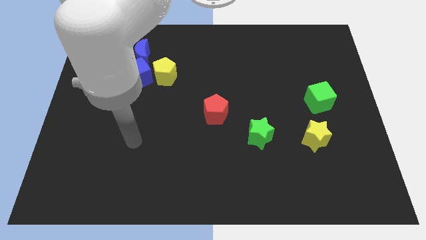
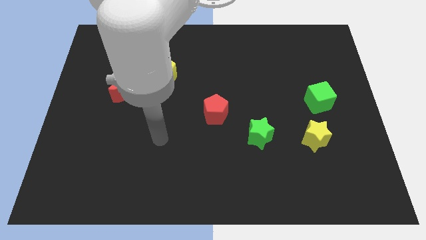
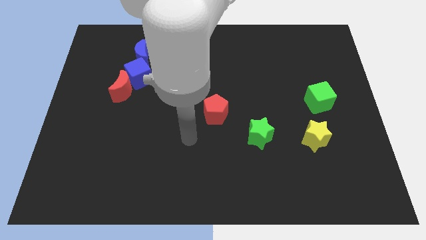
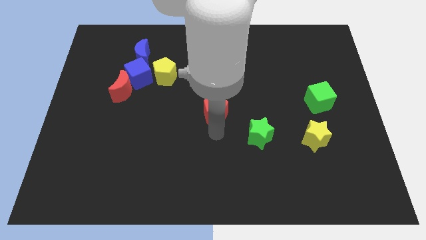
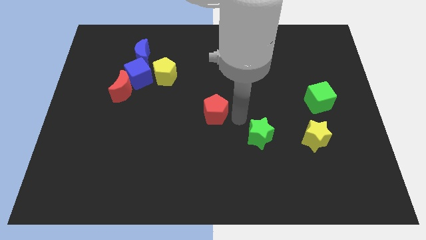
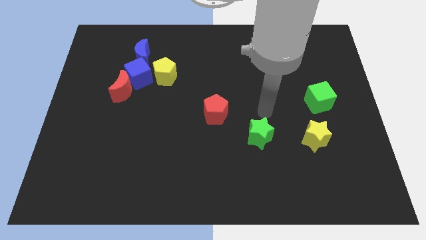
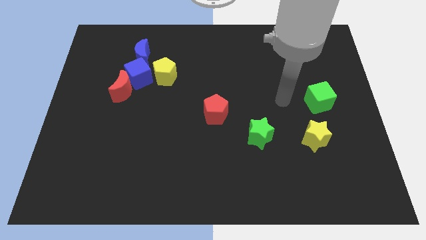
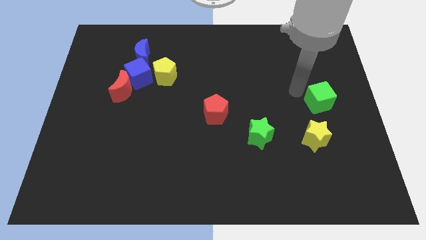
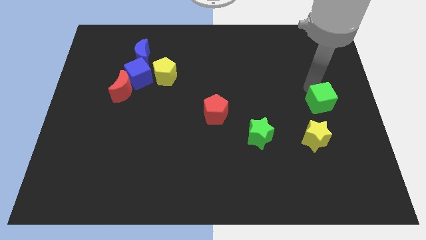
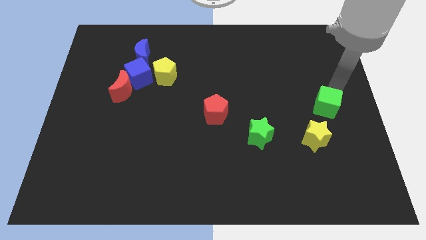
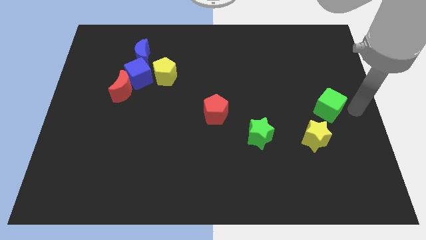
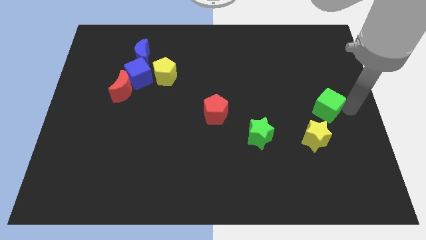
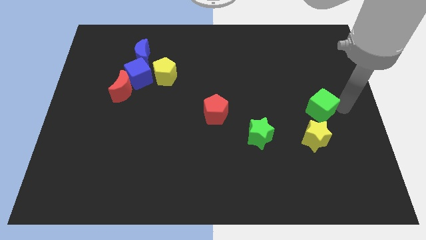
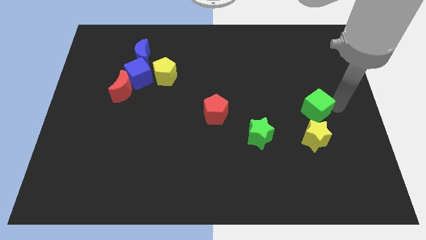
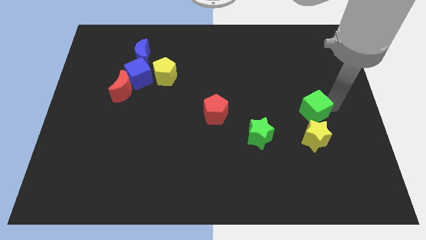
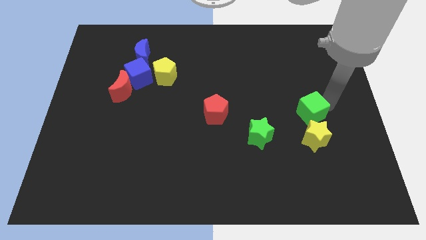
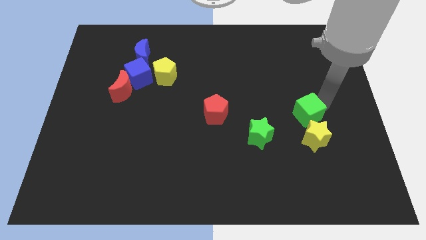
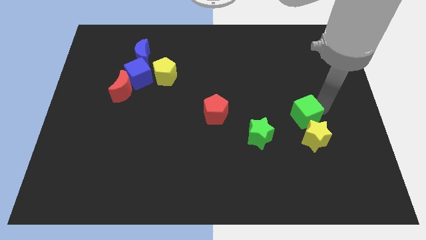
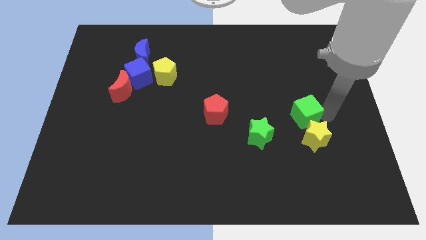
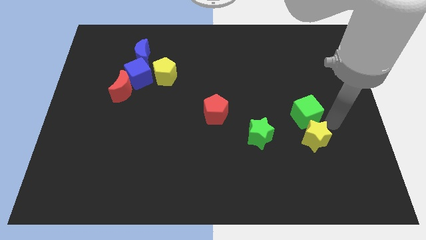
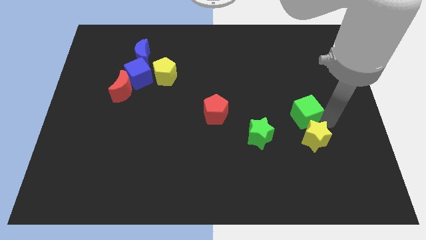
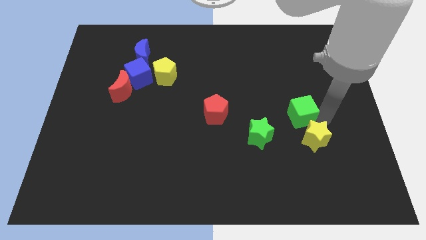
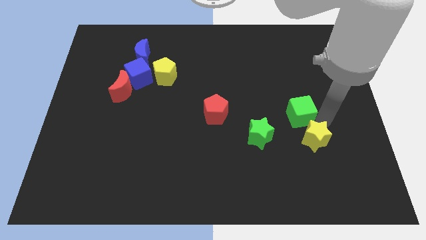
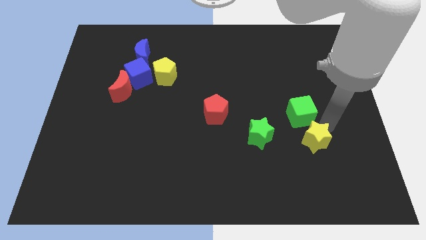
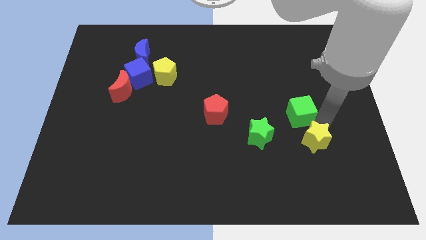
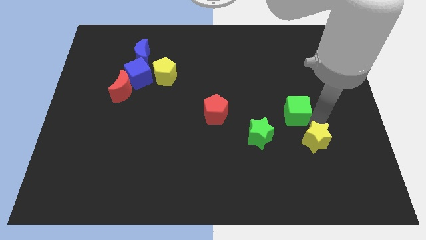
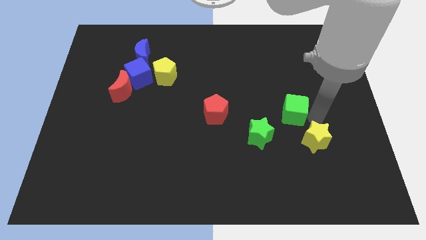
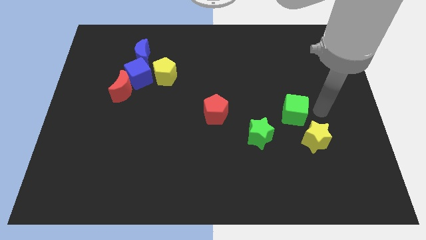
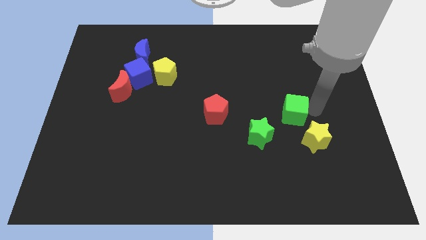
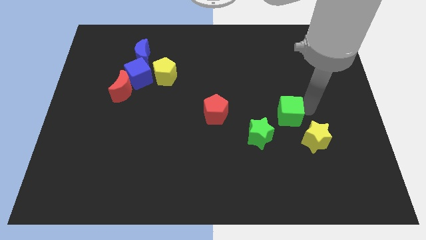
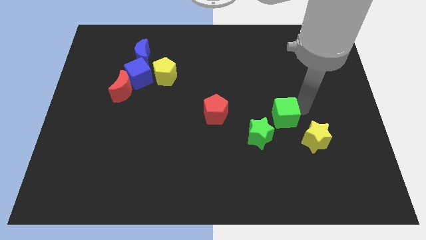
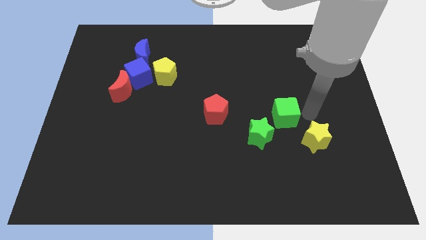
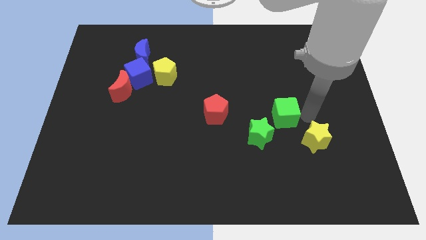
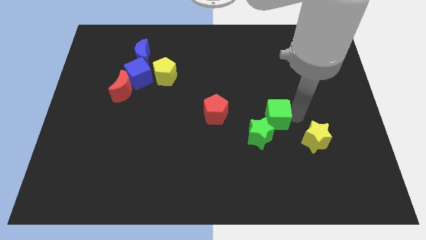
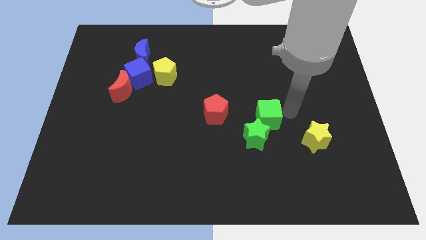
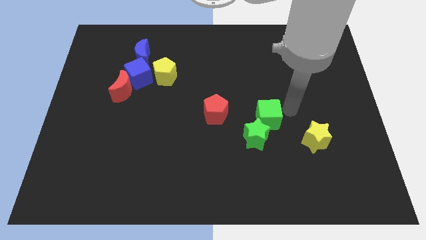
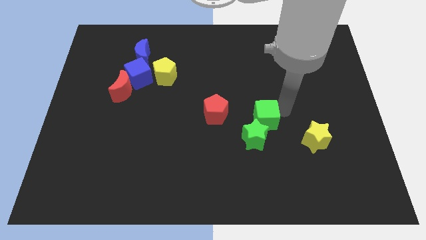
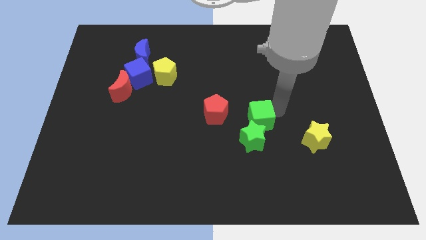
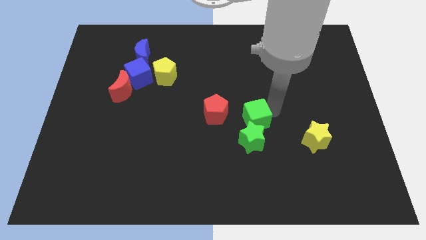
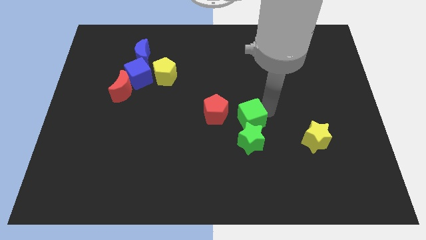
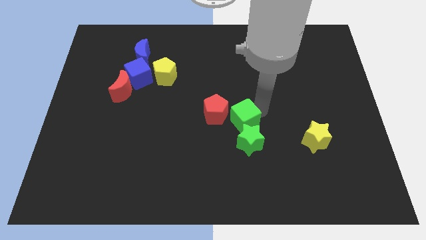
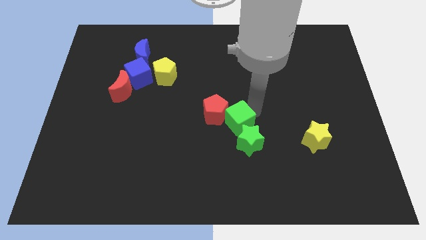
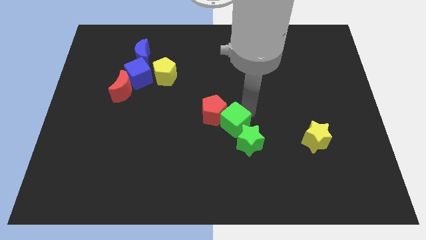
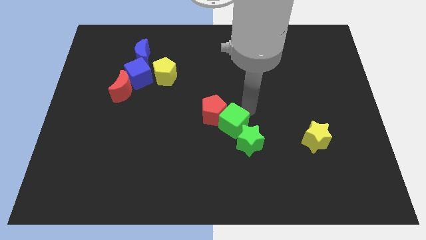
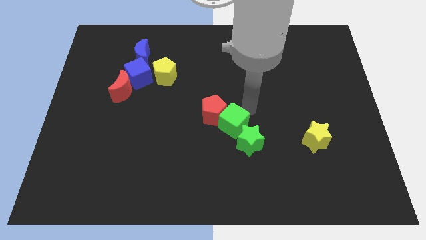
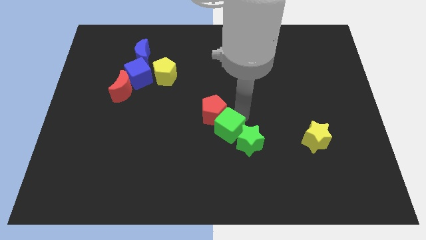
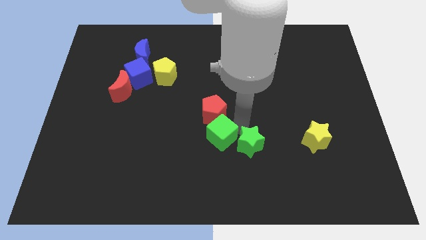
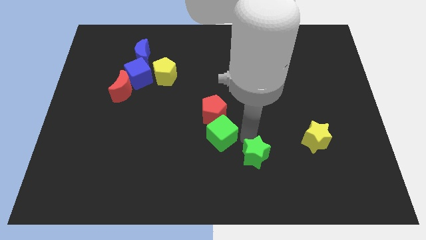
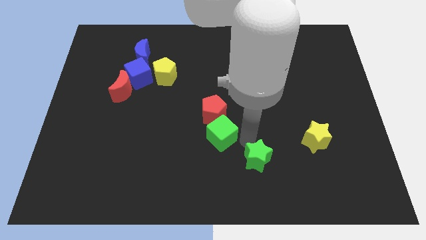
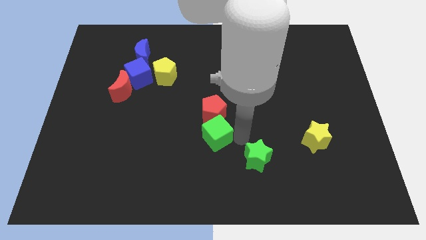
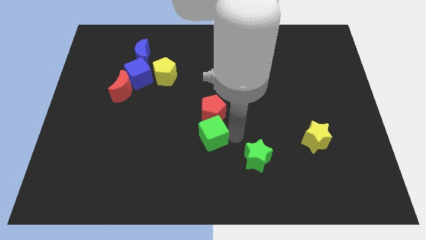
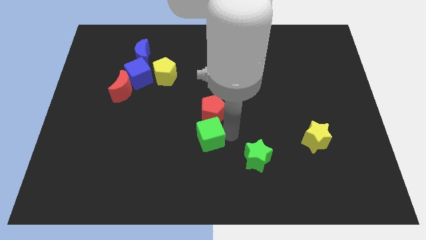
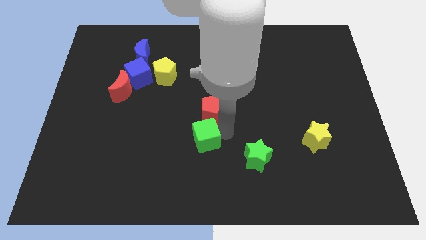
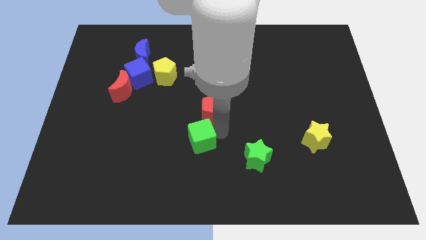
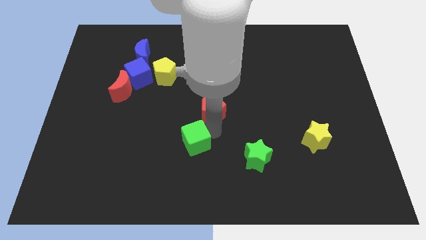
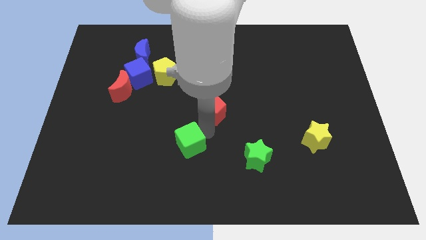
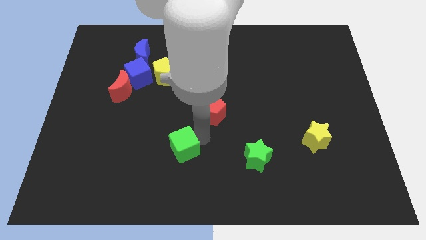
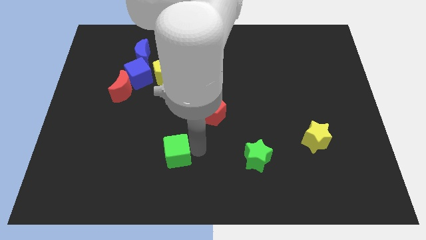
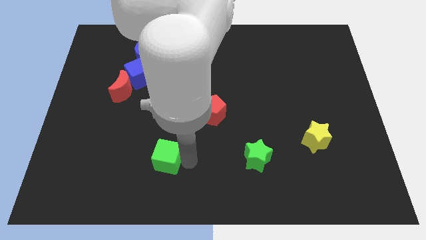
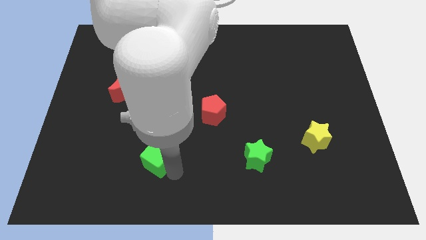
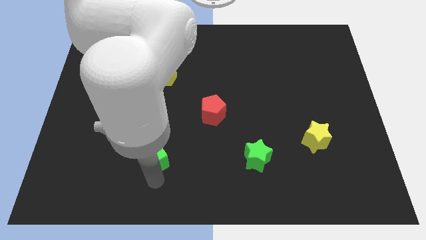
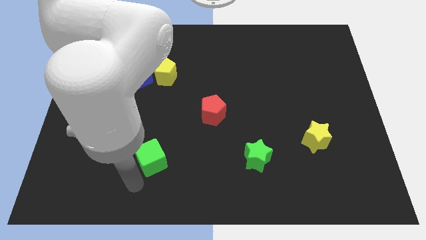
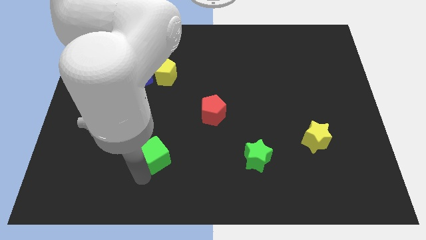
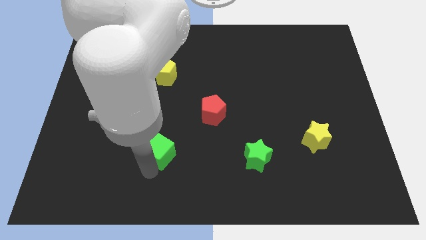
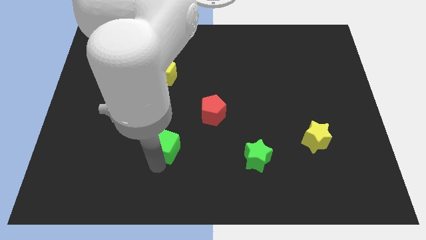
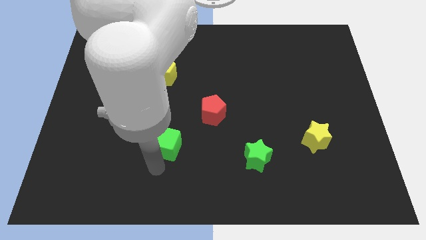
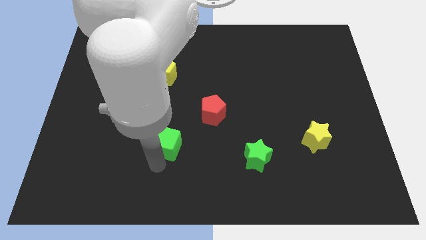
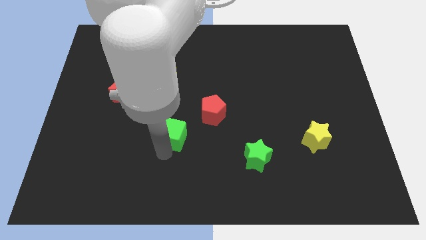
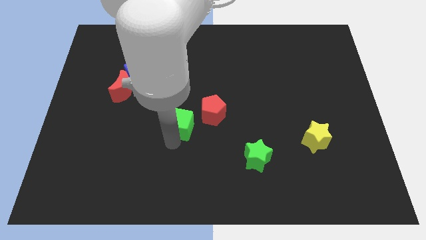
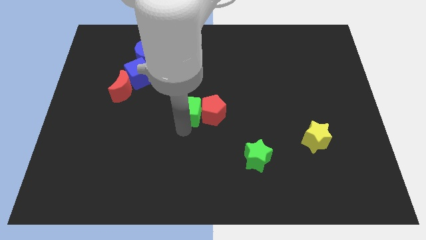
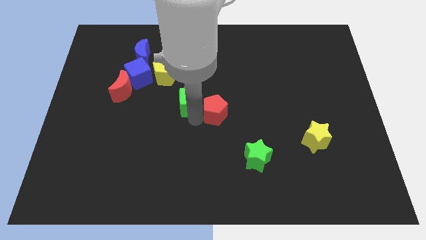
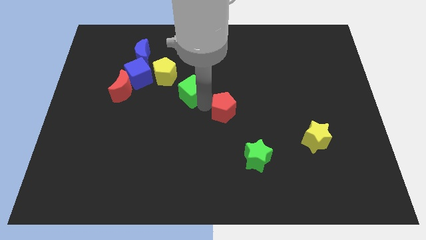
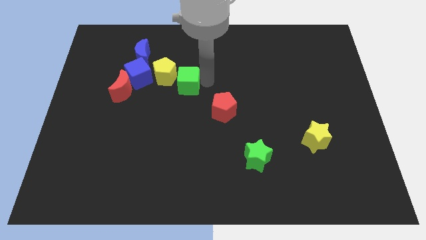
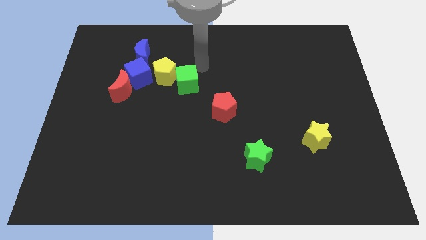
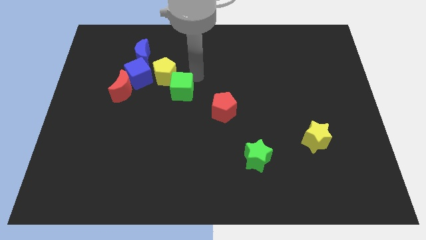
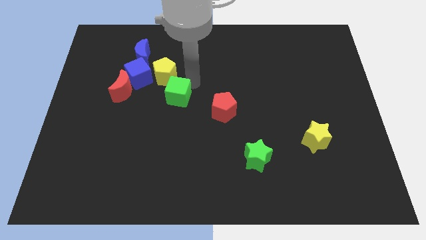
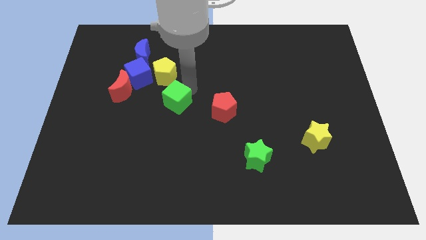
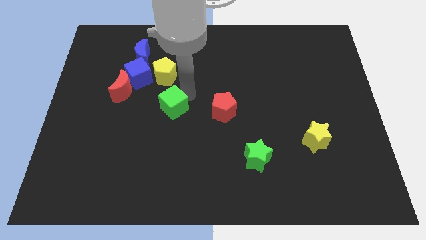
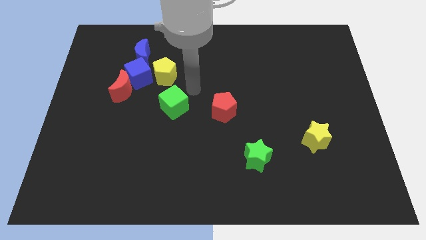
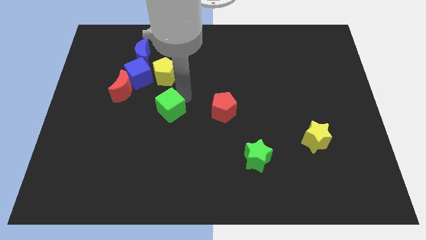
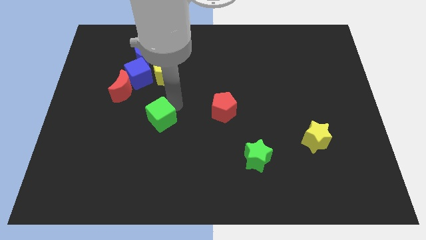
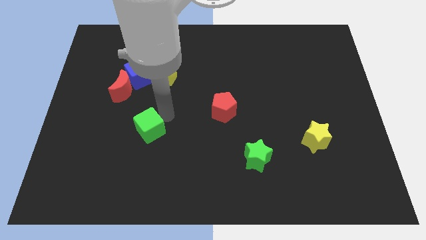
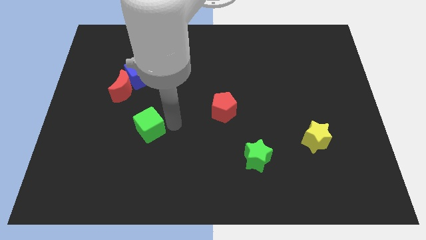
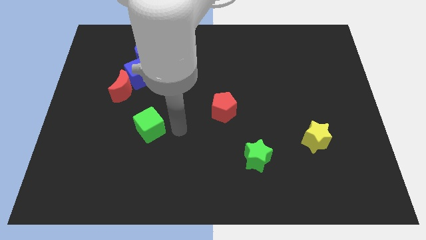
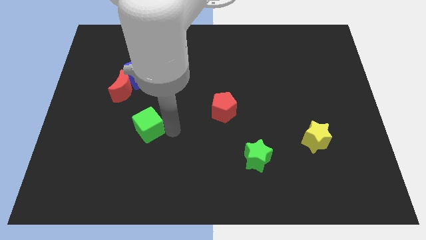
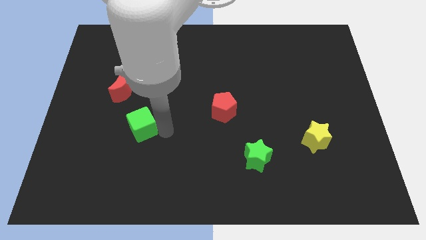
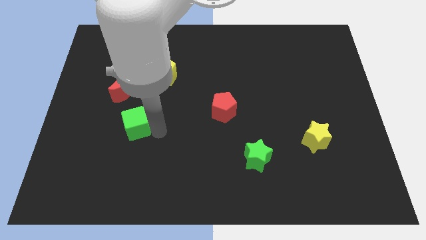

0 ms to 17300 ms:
move the green cube to the bottom of the red moon
